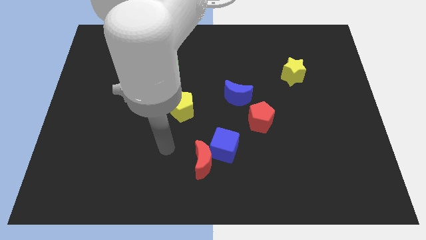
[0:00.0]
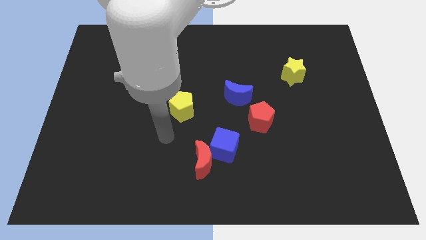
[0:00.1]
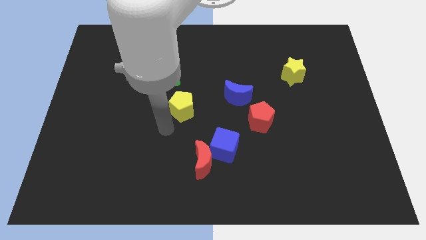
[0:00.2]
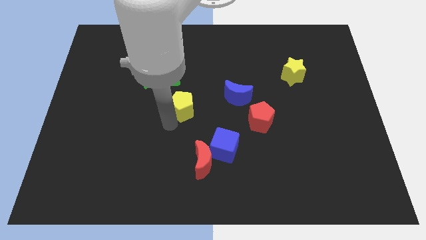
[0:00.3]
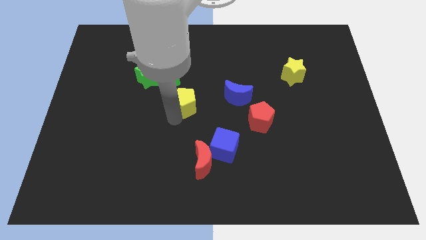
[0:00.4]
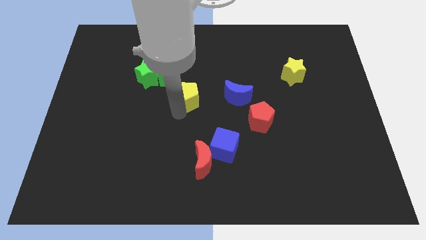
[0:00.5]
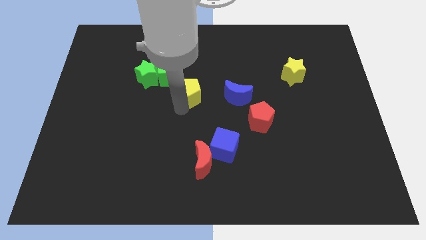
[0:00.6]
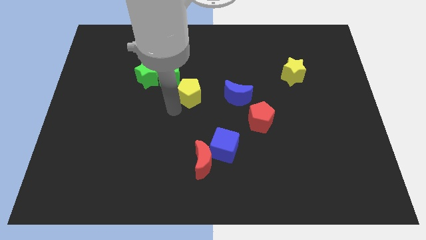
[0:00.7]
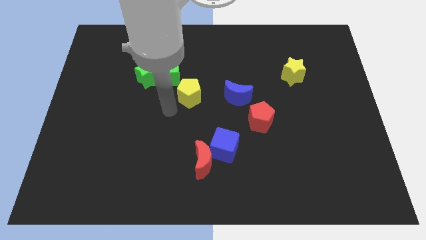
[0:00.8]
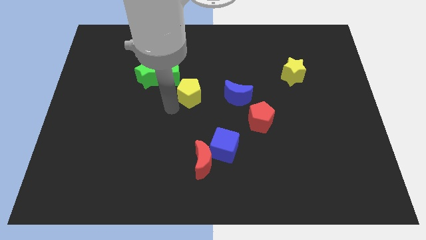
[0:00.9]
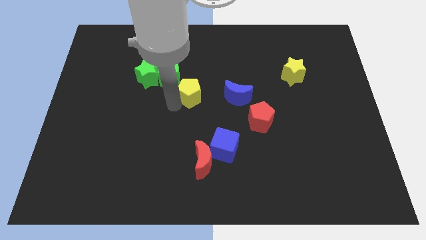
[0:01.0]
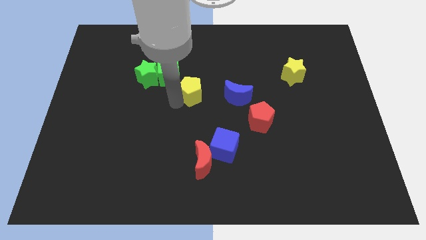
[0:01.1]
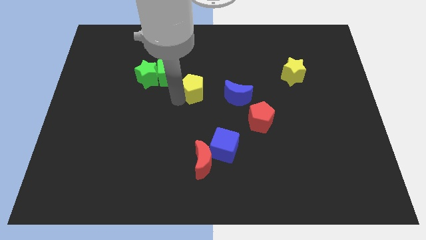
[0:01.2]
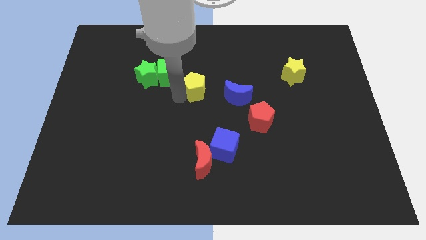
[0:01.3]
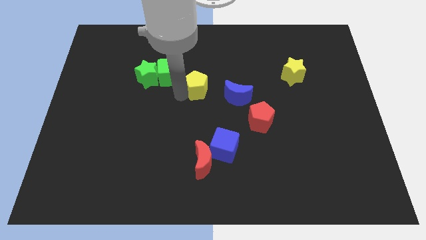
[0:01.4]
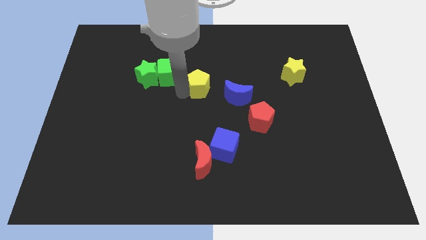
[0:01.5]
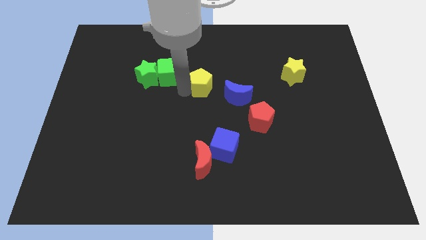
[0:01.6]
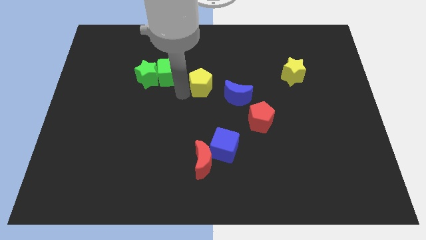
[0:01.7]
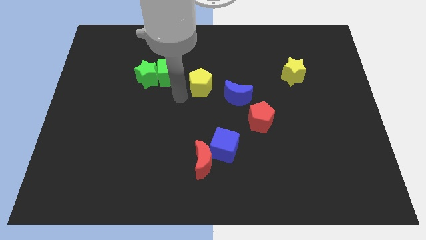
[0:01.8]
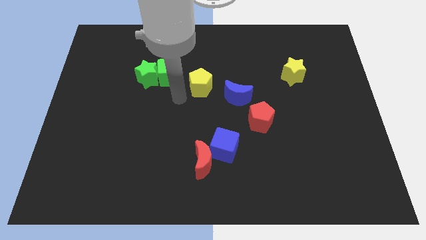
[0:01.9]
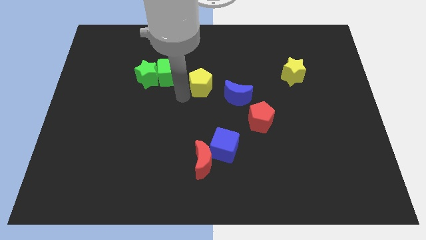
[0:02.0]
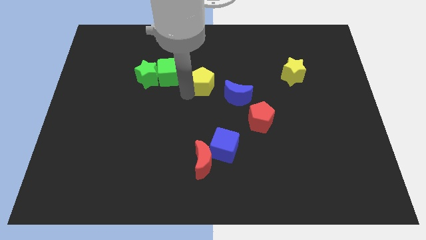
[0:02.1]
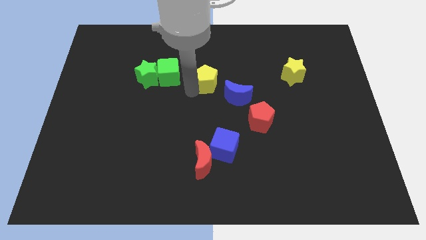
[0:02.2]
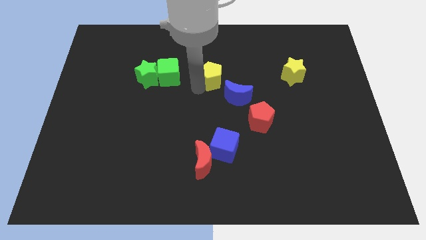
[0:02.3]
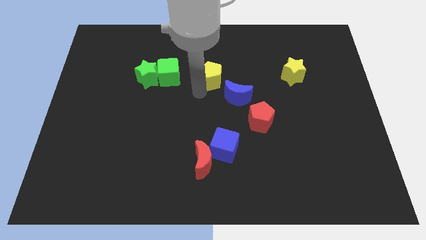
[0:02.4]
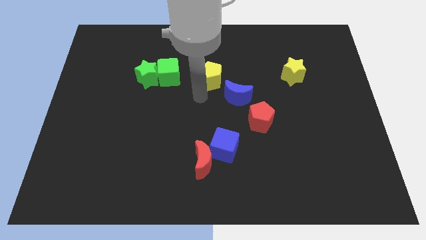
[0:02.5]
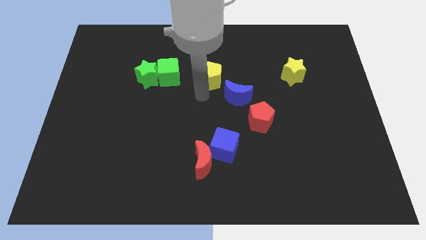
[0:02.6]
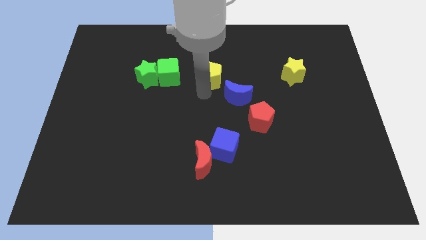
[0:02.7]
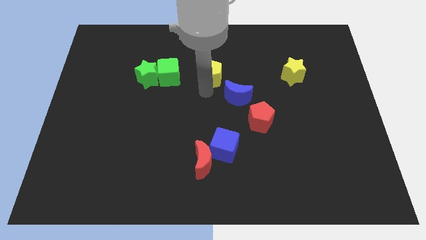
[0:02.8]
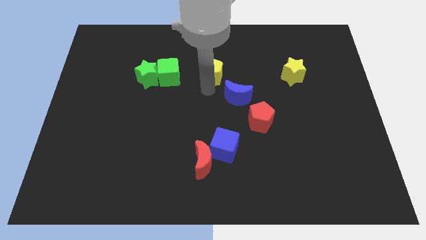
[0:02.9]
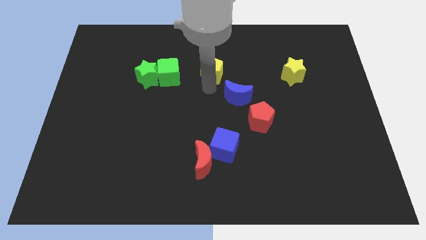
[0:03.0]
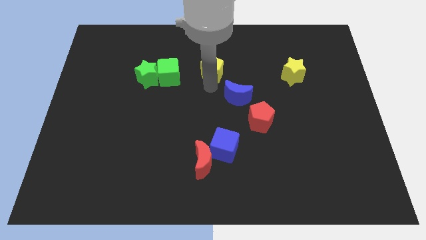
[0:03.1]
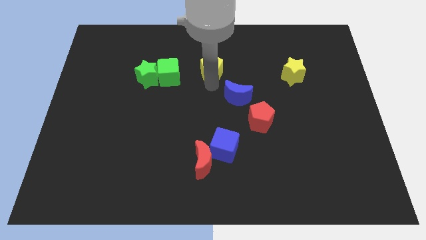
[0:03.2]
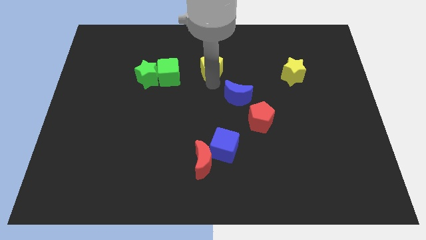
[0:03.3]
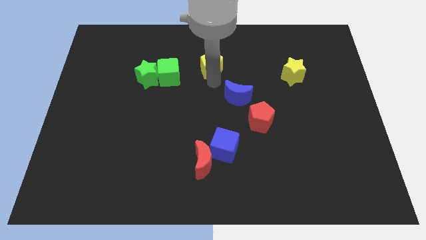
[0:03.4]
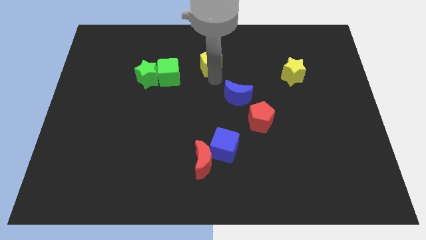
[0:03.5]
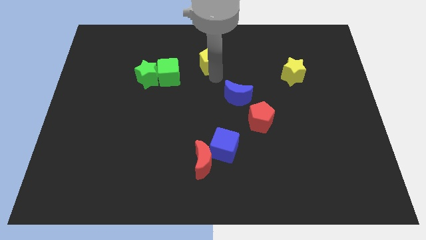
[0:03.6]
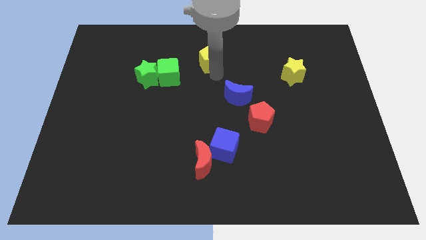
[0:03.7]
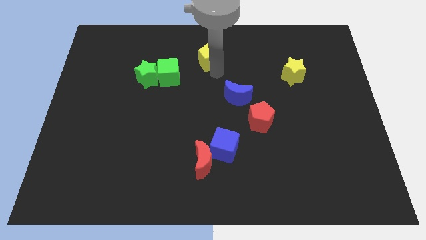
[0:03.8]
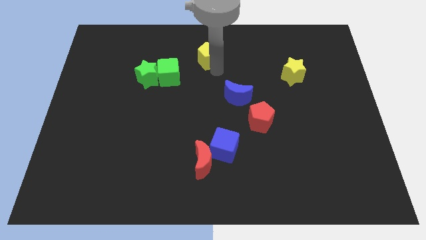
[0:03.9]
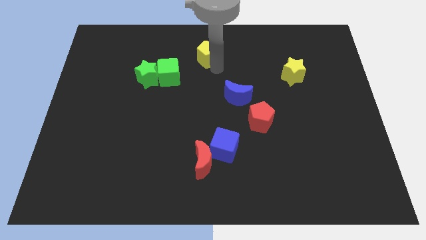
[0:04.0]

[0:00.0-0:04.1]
slide the yellow pentagon to the top side

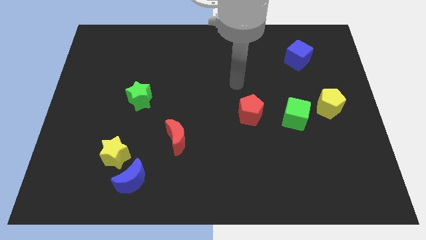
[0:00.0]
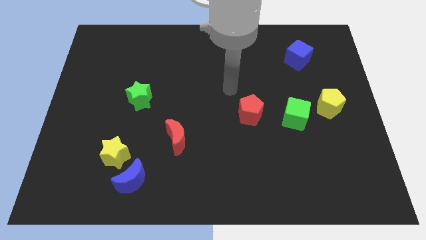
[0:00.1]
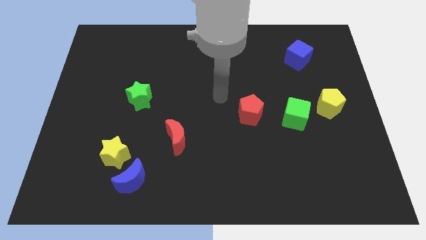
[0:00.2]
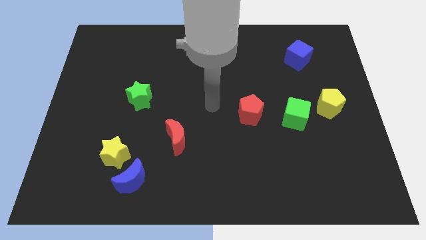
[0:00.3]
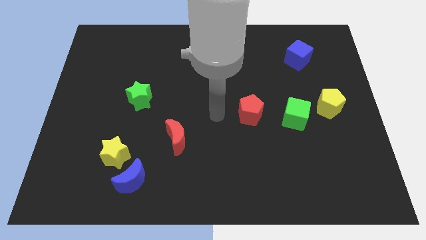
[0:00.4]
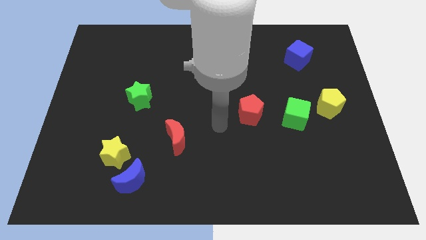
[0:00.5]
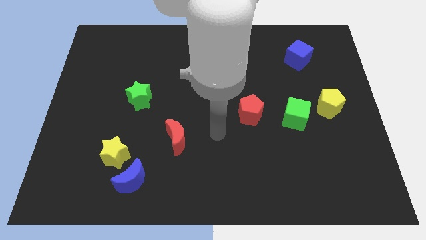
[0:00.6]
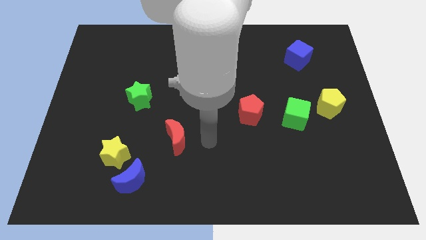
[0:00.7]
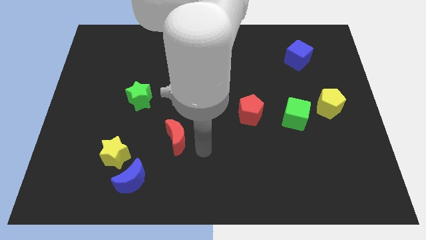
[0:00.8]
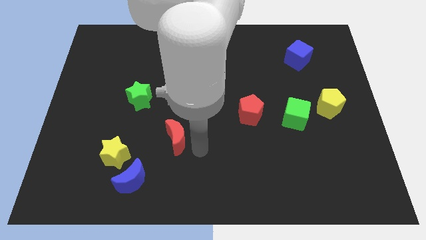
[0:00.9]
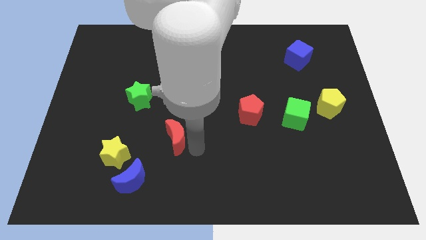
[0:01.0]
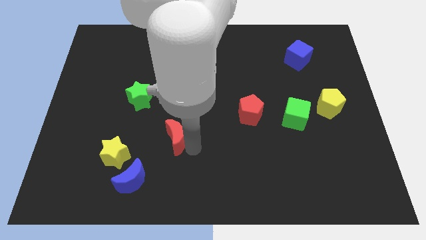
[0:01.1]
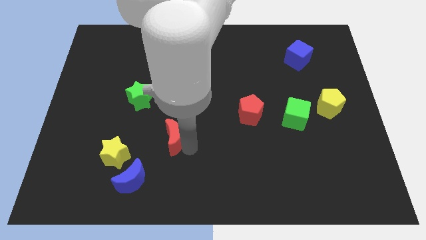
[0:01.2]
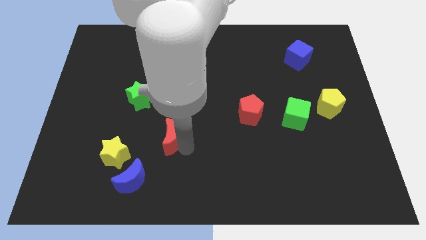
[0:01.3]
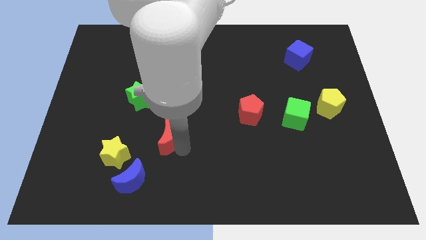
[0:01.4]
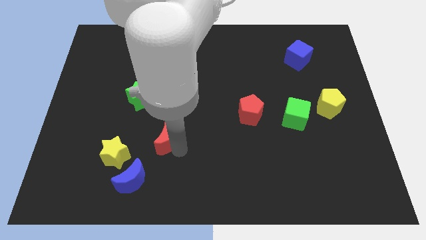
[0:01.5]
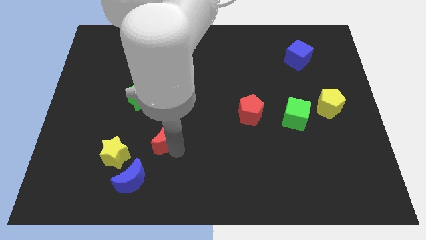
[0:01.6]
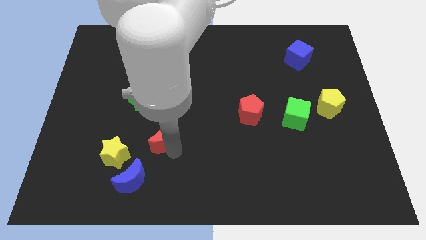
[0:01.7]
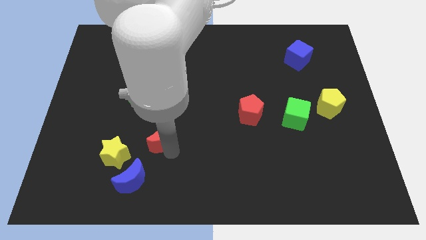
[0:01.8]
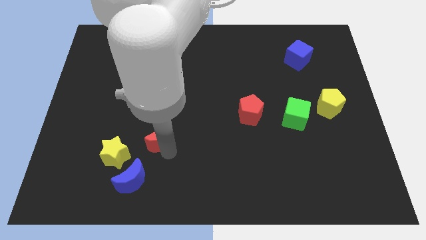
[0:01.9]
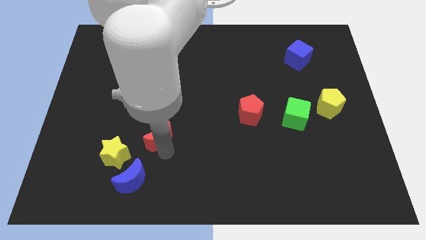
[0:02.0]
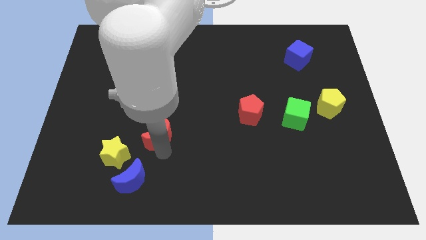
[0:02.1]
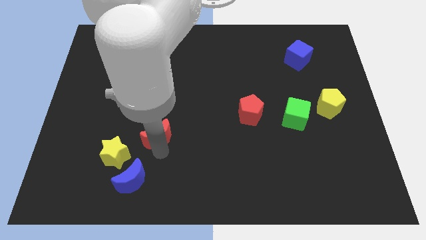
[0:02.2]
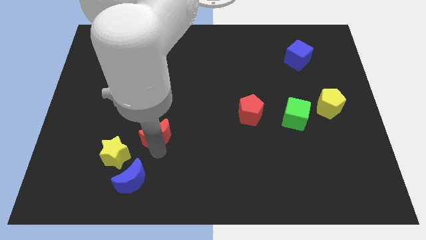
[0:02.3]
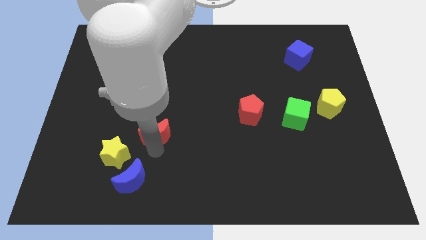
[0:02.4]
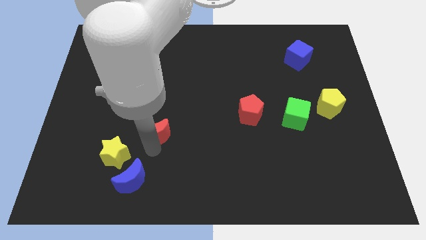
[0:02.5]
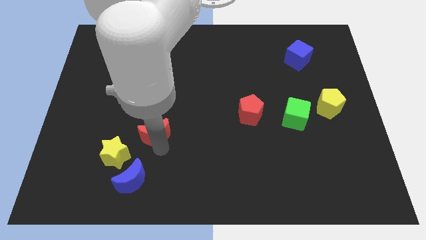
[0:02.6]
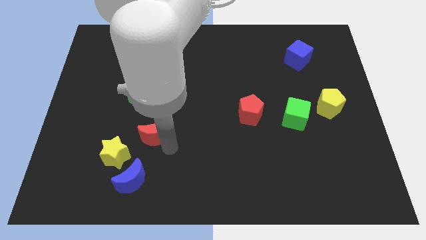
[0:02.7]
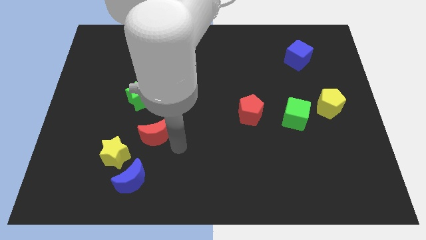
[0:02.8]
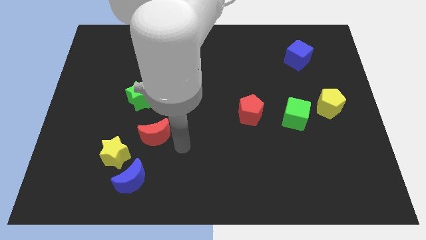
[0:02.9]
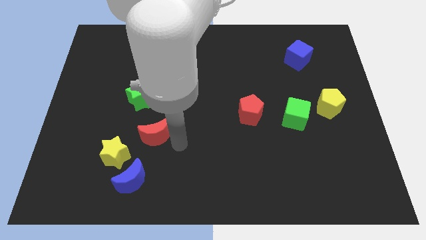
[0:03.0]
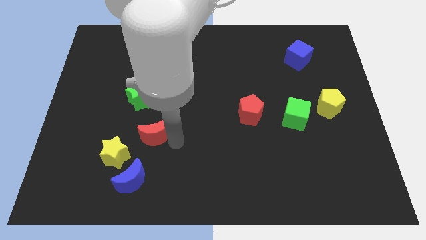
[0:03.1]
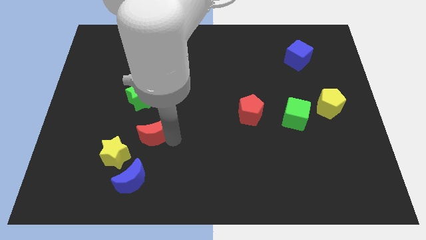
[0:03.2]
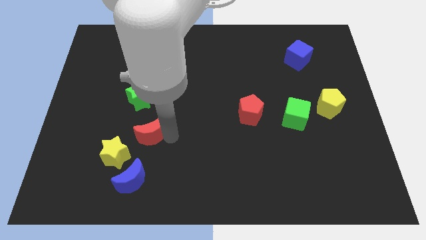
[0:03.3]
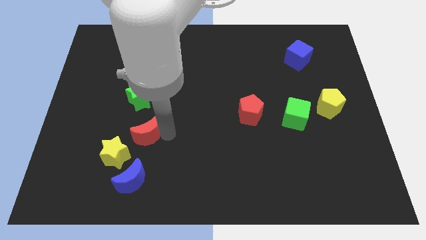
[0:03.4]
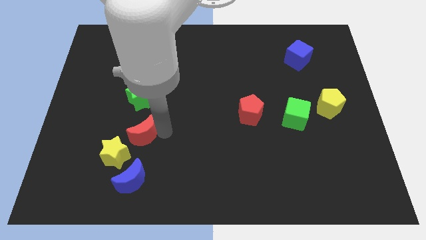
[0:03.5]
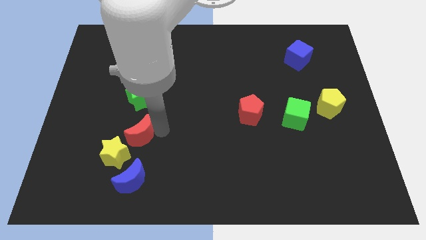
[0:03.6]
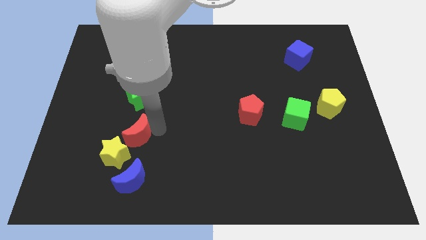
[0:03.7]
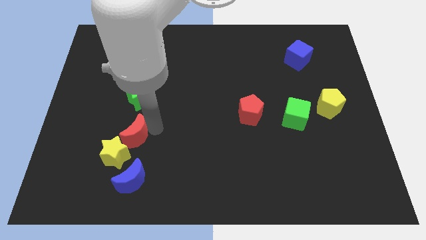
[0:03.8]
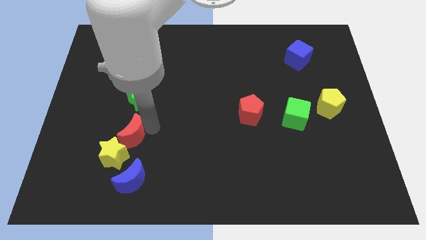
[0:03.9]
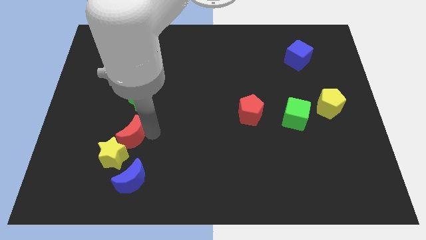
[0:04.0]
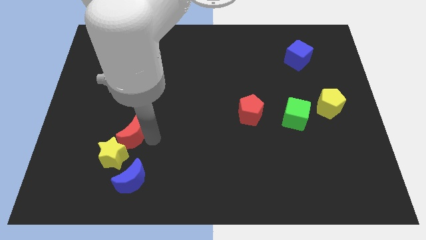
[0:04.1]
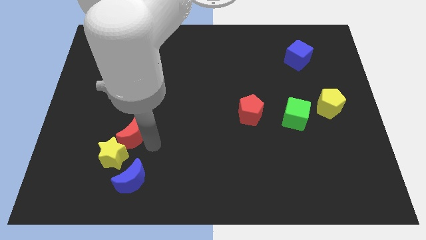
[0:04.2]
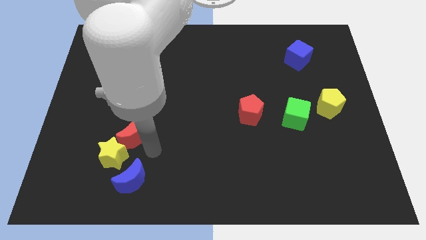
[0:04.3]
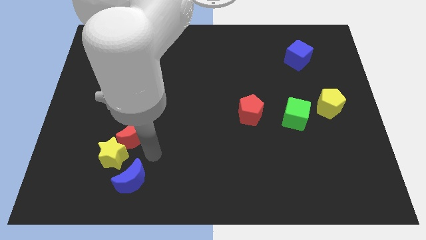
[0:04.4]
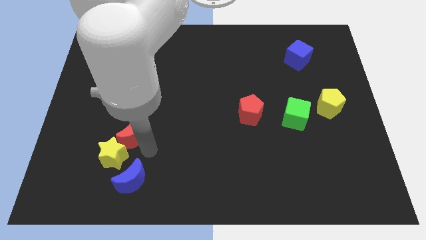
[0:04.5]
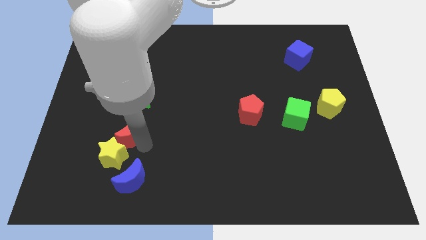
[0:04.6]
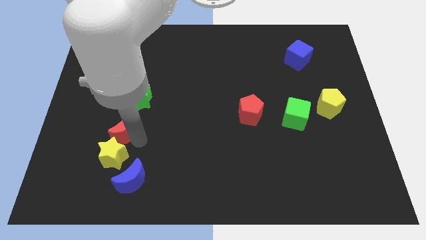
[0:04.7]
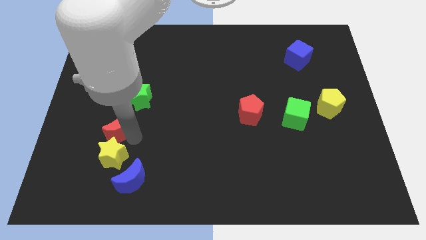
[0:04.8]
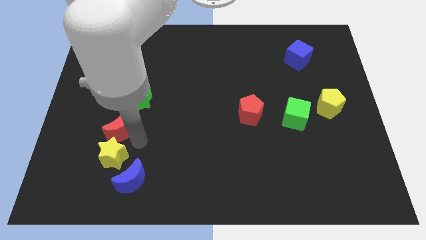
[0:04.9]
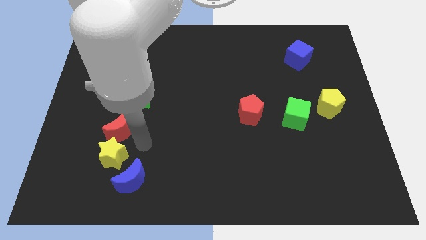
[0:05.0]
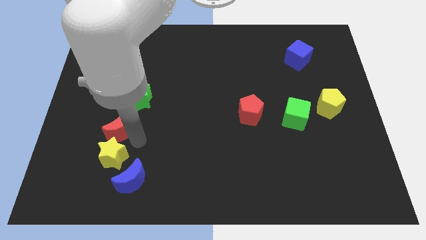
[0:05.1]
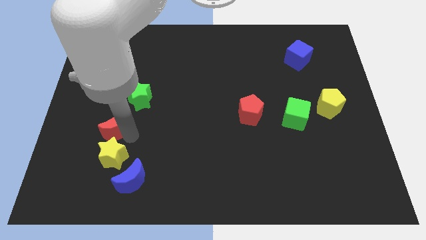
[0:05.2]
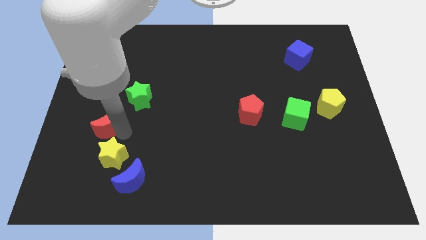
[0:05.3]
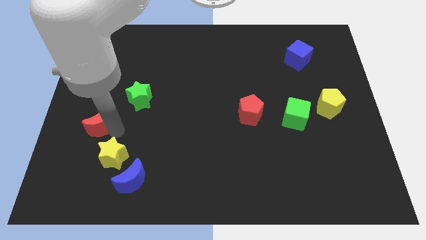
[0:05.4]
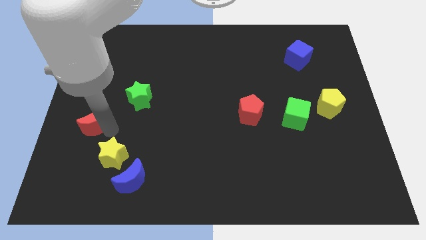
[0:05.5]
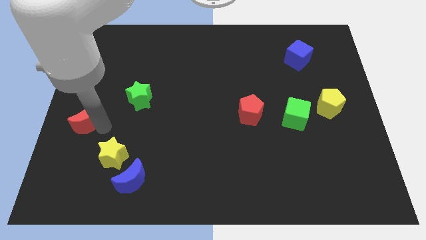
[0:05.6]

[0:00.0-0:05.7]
put the red moon to the center left
